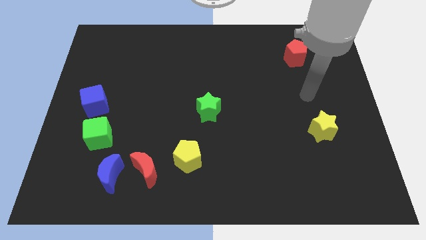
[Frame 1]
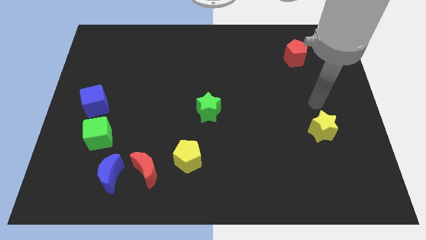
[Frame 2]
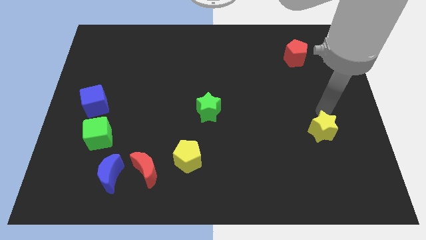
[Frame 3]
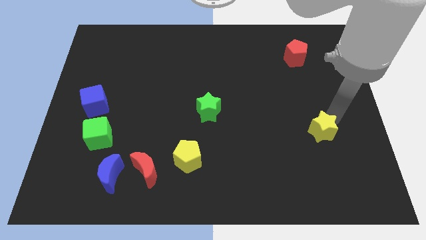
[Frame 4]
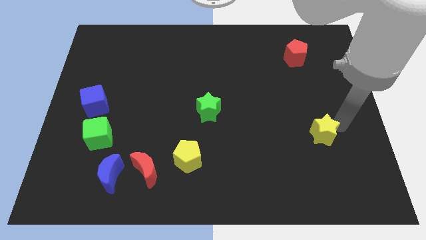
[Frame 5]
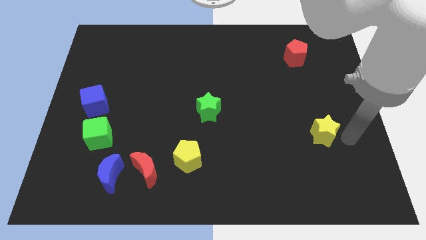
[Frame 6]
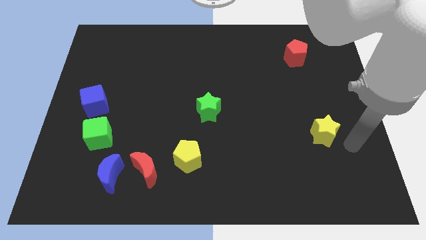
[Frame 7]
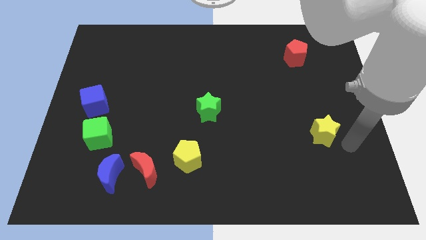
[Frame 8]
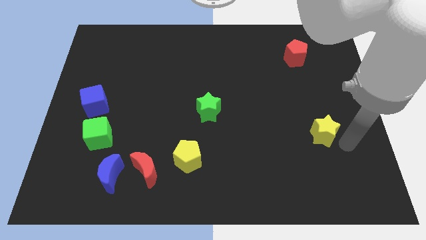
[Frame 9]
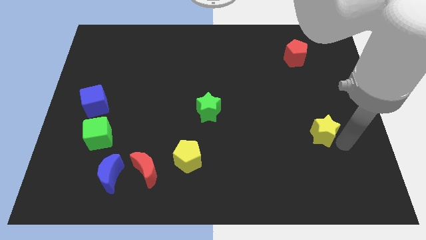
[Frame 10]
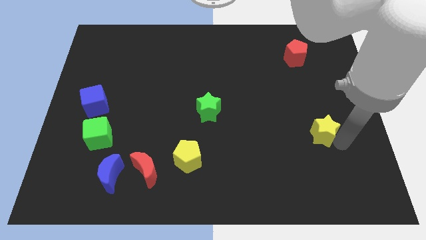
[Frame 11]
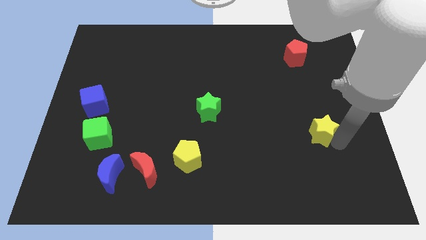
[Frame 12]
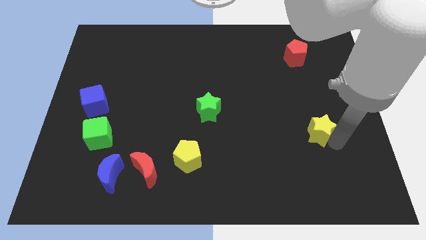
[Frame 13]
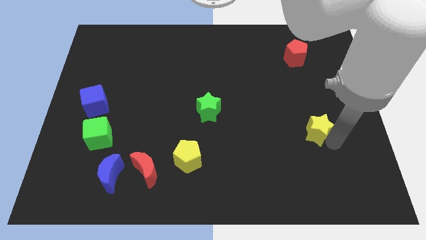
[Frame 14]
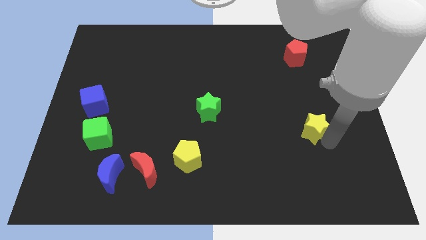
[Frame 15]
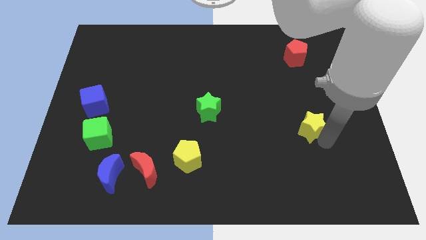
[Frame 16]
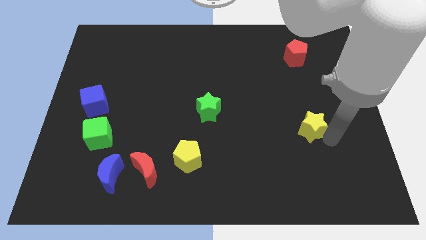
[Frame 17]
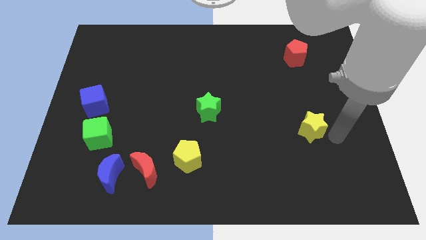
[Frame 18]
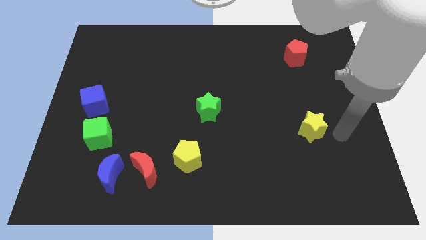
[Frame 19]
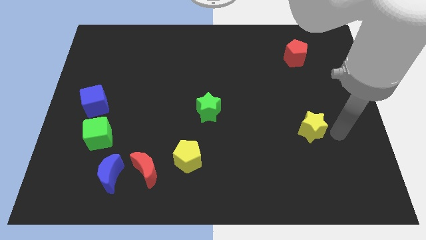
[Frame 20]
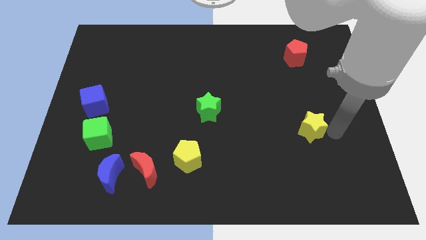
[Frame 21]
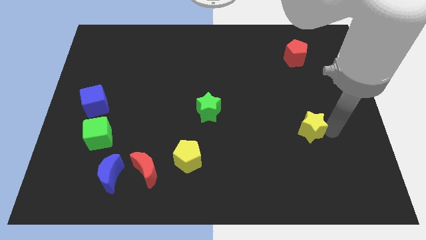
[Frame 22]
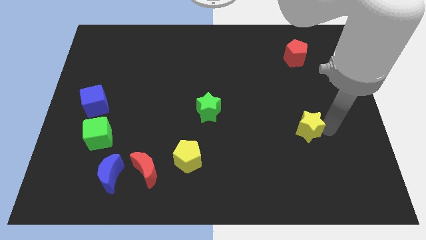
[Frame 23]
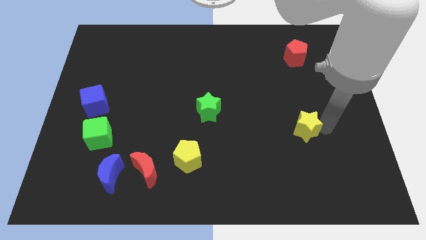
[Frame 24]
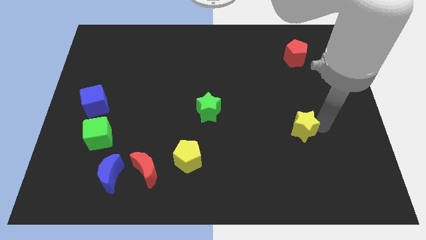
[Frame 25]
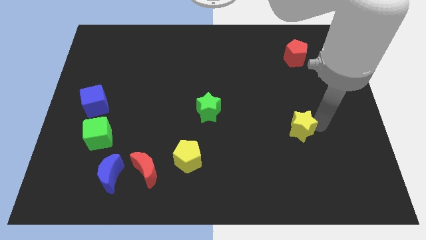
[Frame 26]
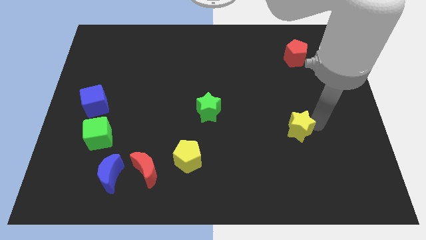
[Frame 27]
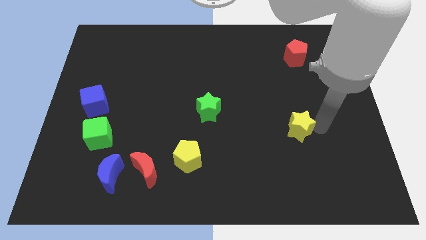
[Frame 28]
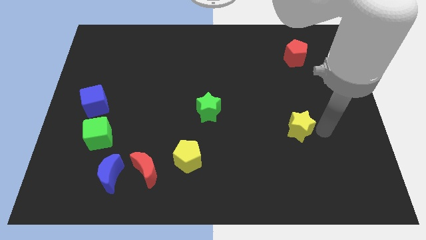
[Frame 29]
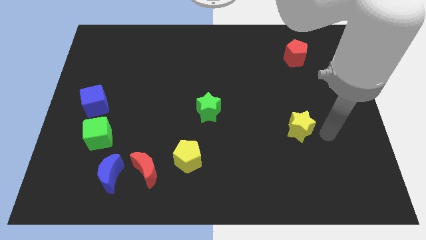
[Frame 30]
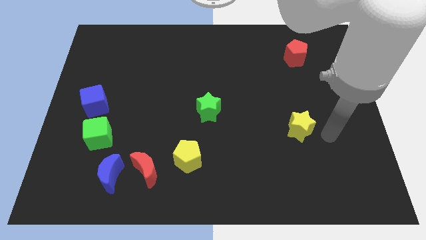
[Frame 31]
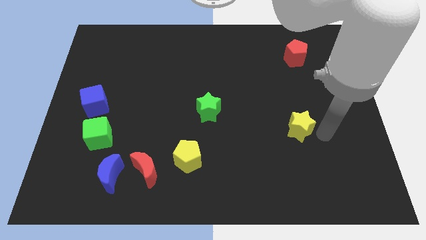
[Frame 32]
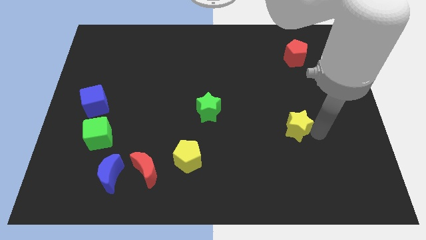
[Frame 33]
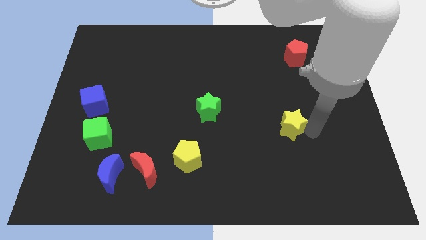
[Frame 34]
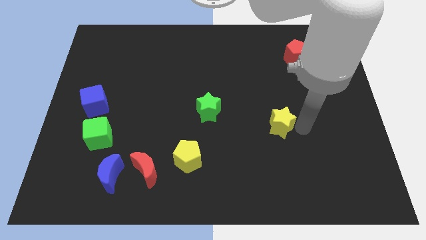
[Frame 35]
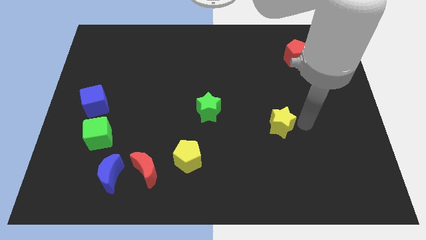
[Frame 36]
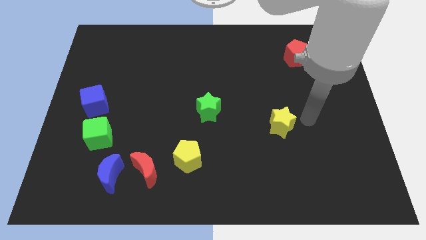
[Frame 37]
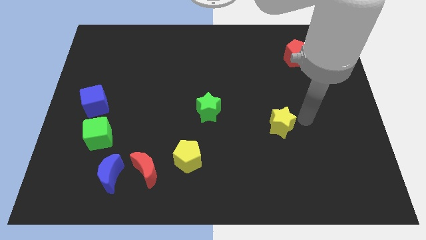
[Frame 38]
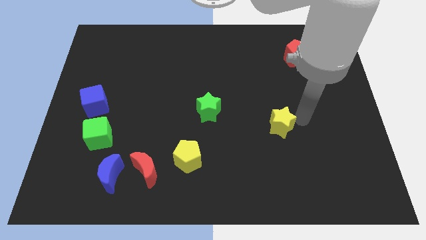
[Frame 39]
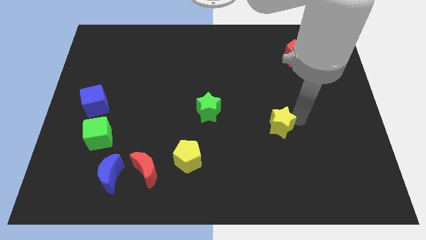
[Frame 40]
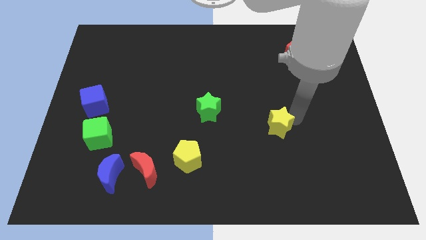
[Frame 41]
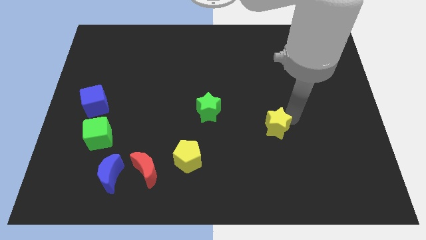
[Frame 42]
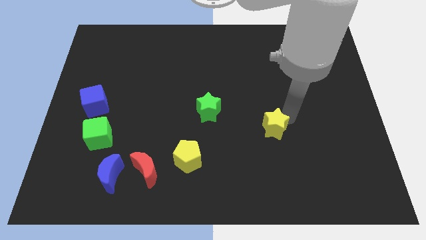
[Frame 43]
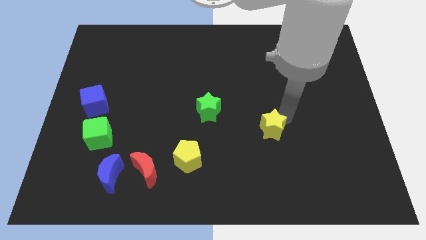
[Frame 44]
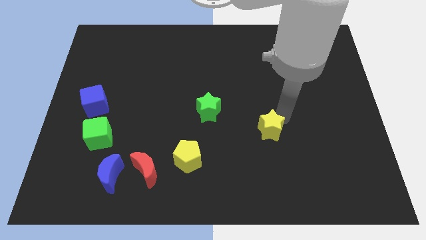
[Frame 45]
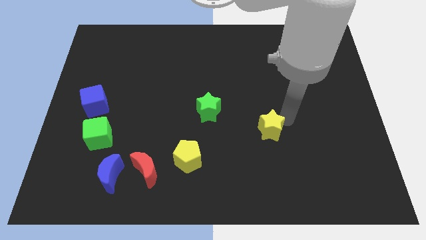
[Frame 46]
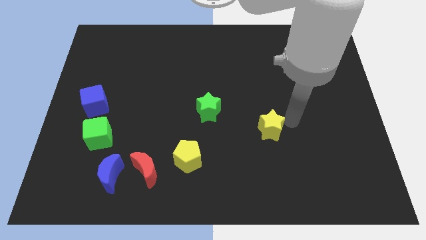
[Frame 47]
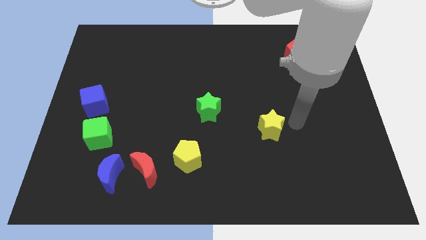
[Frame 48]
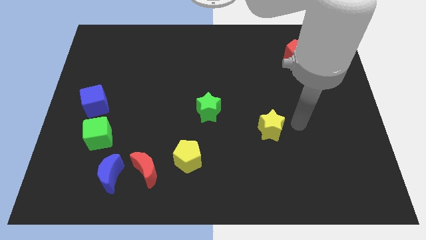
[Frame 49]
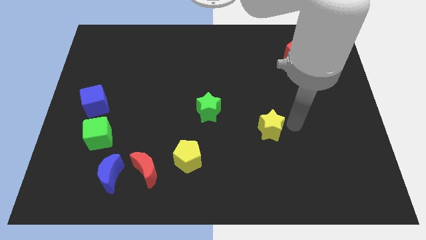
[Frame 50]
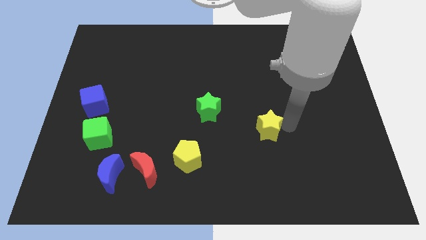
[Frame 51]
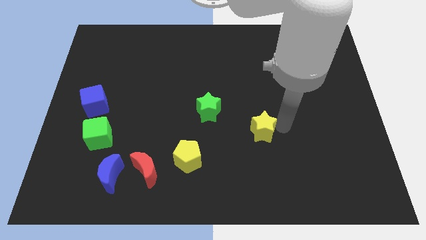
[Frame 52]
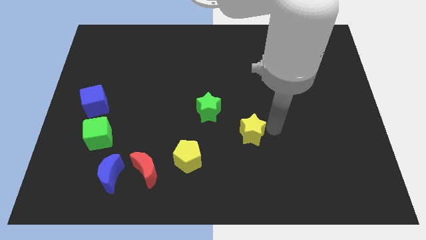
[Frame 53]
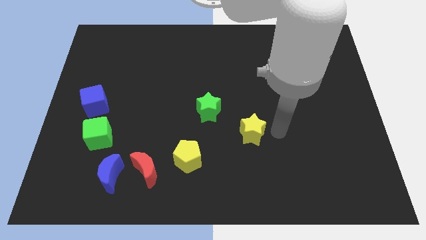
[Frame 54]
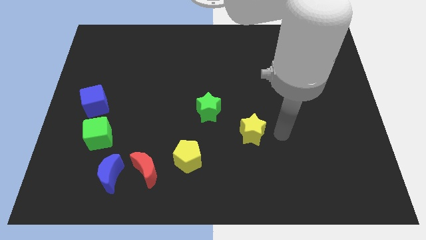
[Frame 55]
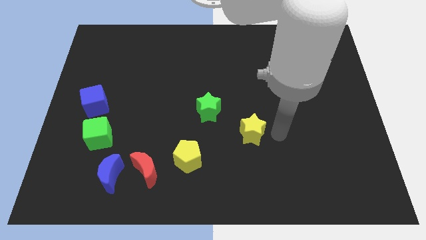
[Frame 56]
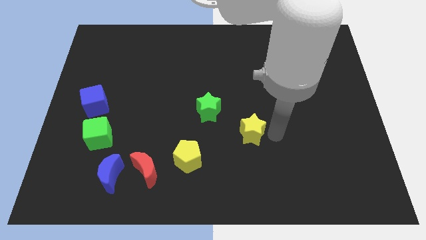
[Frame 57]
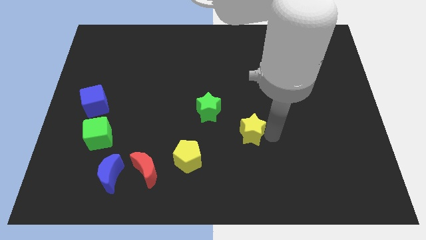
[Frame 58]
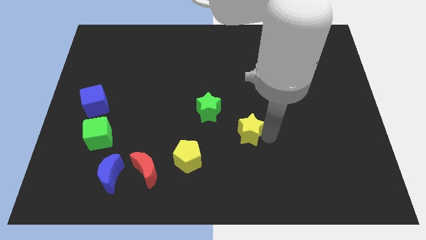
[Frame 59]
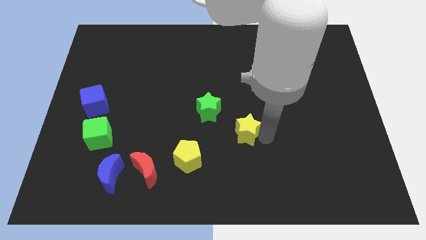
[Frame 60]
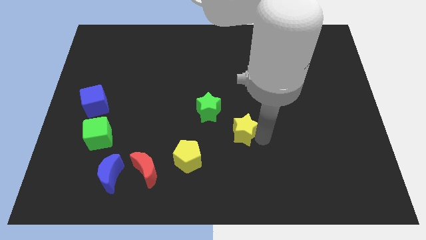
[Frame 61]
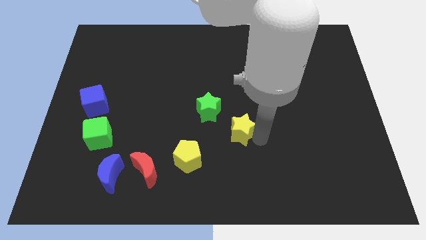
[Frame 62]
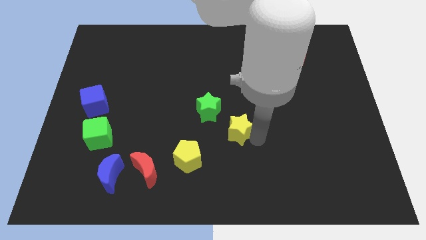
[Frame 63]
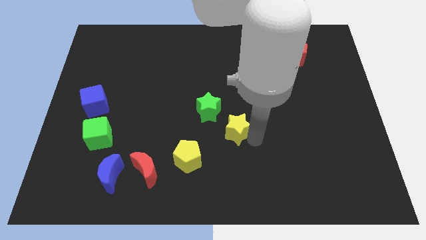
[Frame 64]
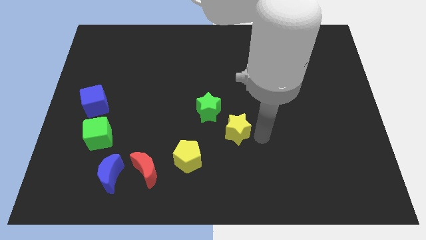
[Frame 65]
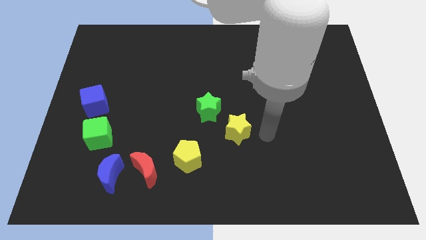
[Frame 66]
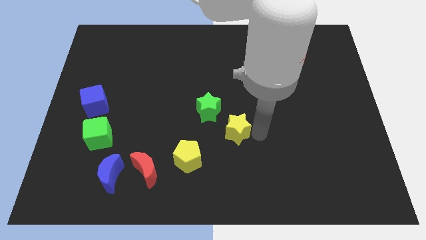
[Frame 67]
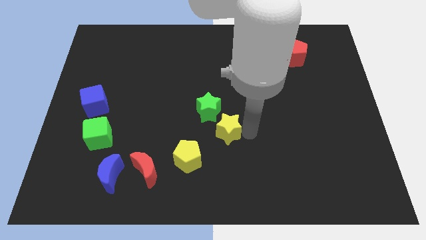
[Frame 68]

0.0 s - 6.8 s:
move the yellow star left

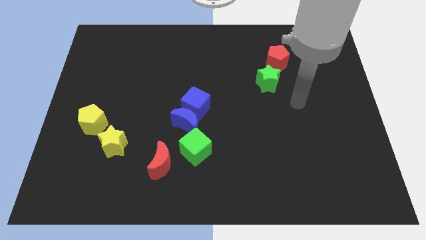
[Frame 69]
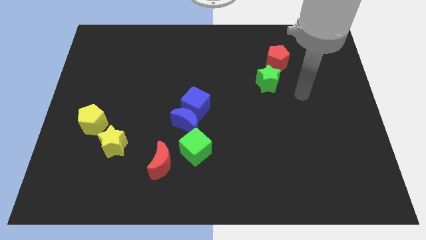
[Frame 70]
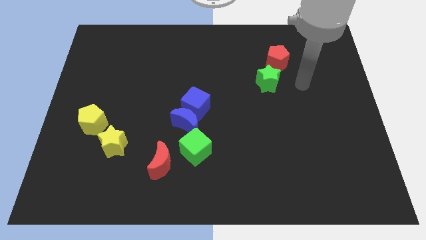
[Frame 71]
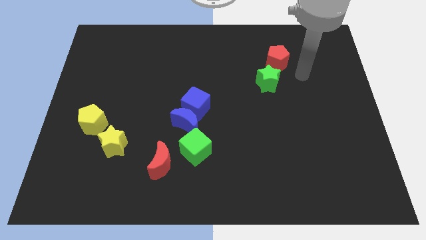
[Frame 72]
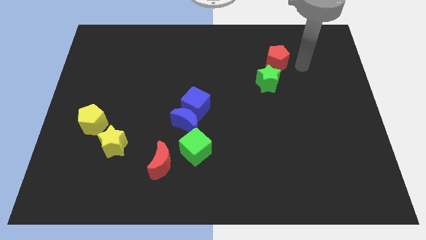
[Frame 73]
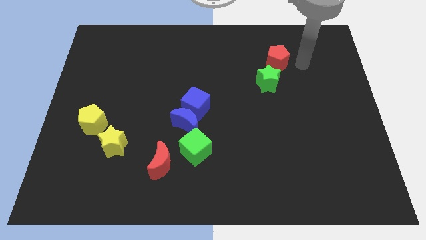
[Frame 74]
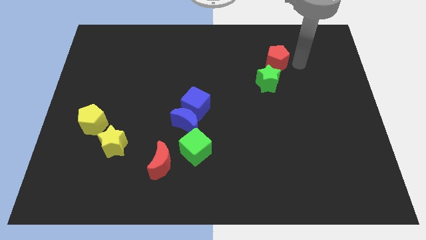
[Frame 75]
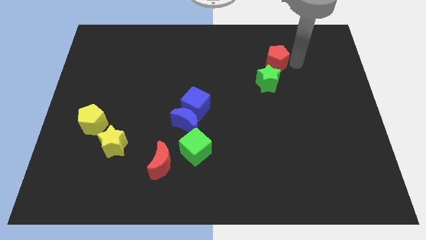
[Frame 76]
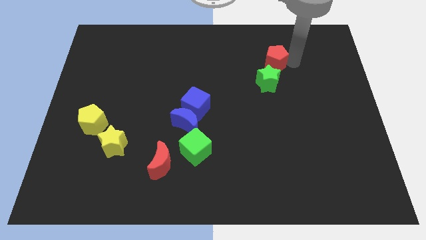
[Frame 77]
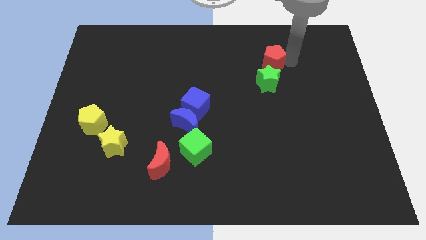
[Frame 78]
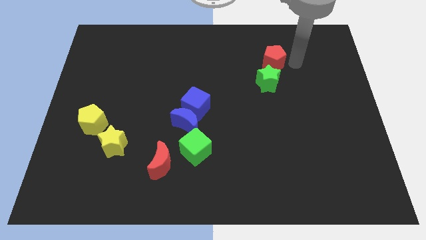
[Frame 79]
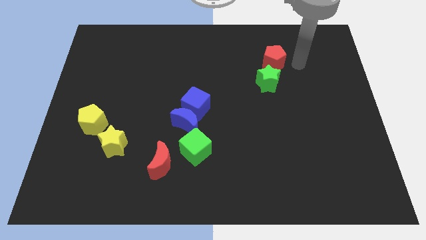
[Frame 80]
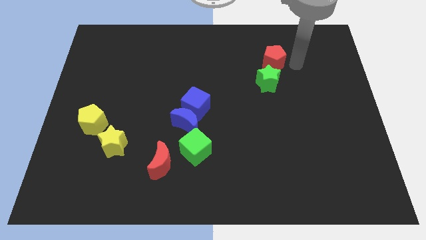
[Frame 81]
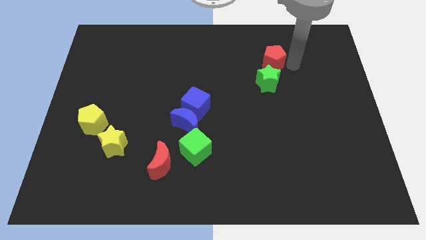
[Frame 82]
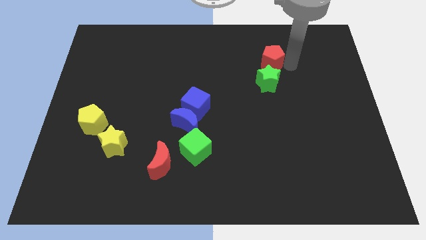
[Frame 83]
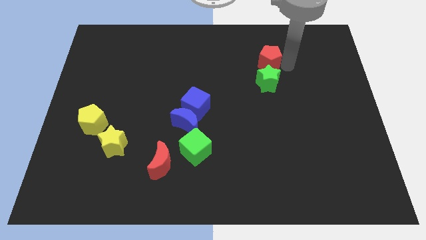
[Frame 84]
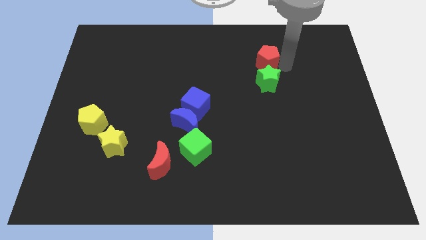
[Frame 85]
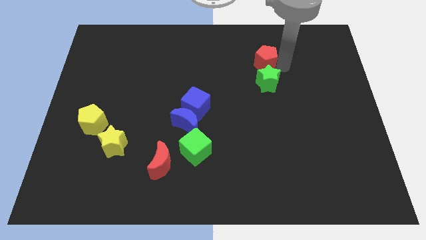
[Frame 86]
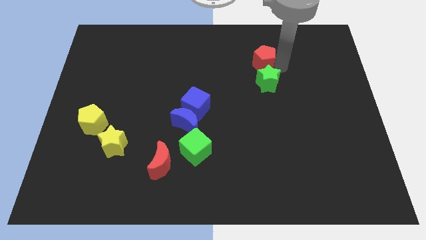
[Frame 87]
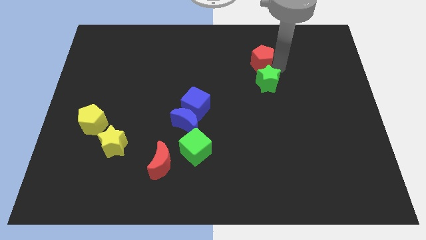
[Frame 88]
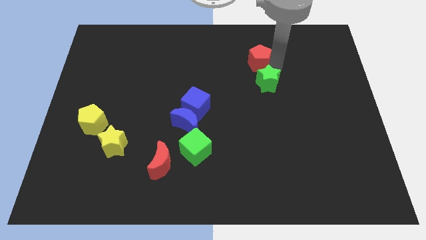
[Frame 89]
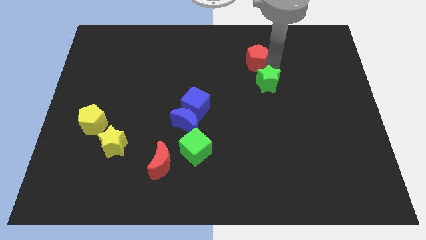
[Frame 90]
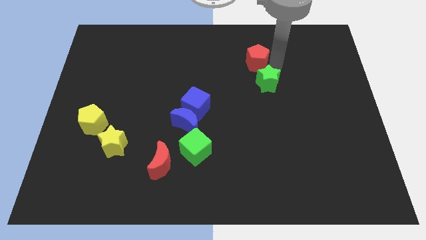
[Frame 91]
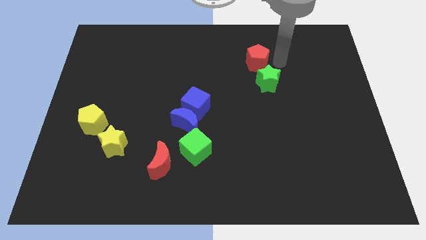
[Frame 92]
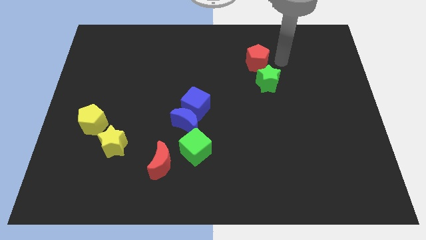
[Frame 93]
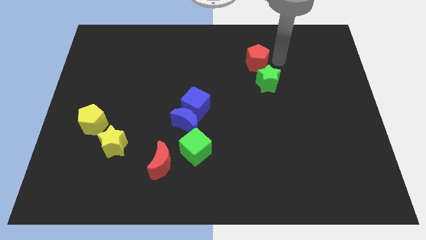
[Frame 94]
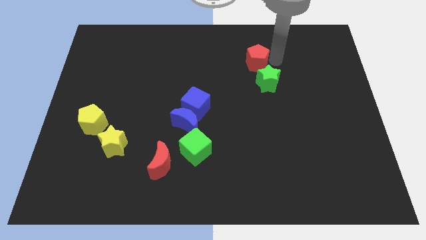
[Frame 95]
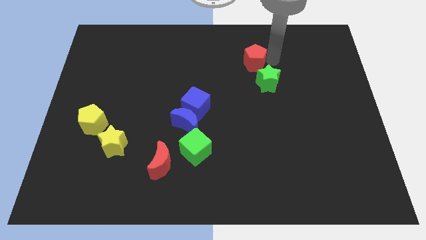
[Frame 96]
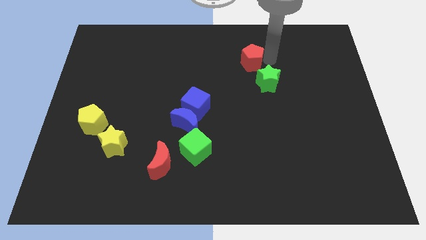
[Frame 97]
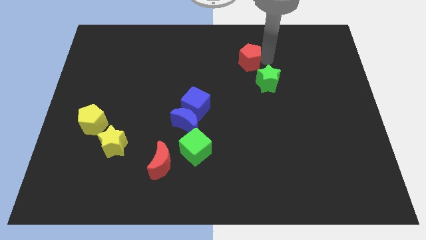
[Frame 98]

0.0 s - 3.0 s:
move the red pentagon to the left a little
